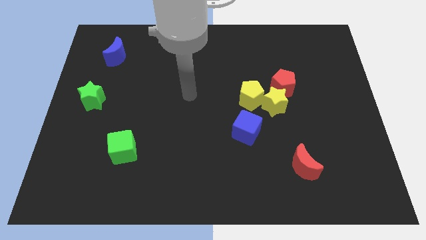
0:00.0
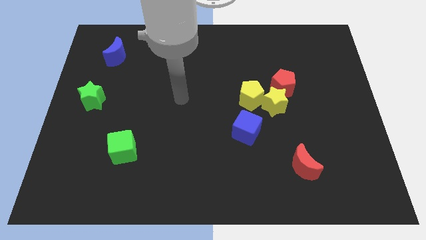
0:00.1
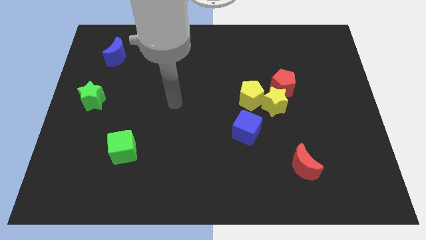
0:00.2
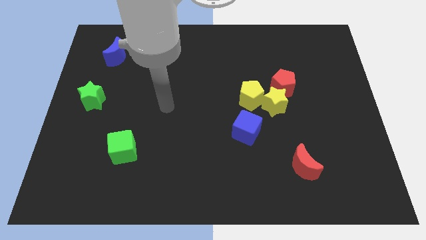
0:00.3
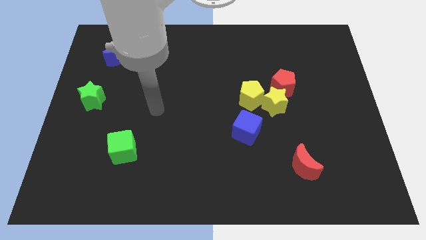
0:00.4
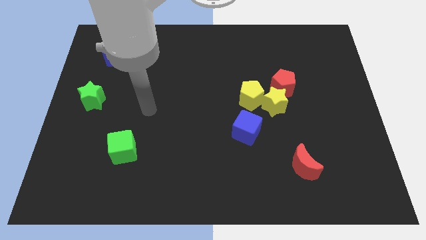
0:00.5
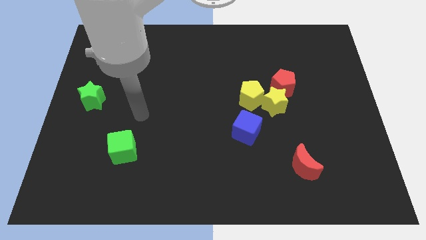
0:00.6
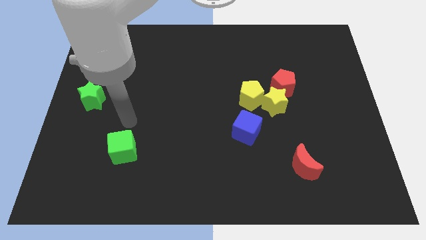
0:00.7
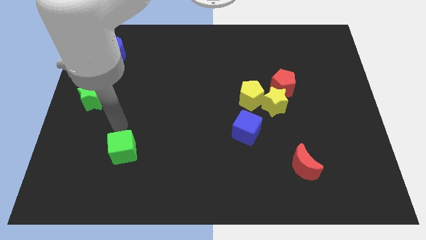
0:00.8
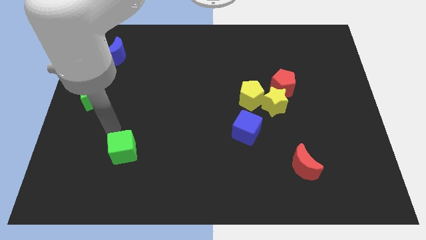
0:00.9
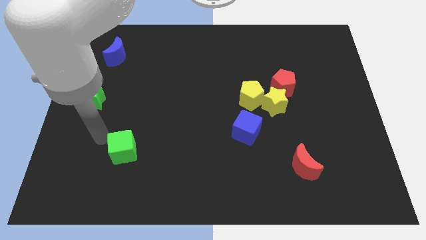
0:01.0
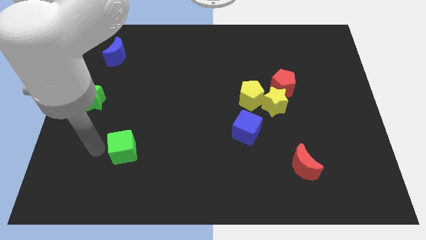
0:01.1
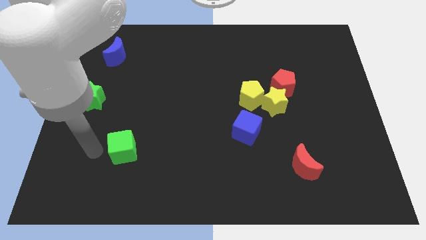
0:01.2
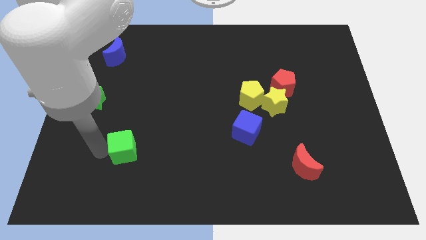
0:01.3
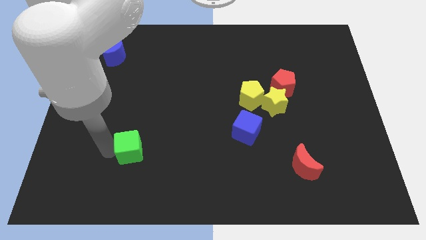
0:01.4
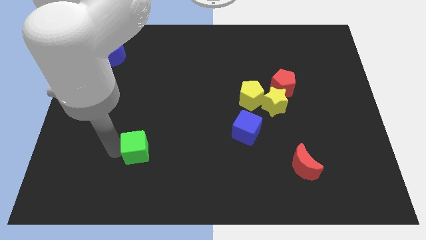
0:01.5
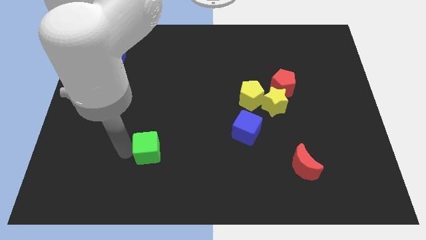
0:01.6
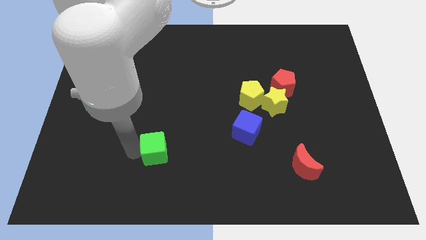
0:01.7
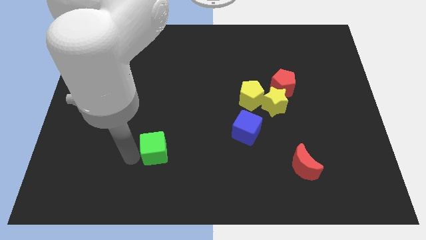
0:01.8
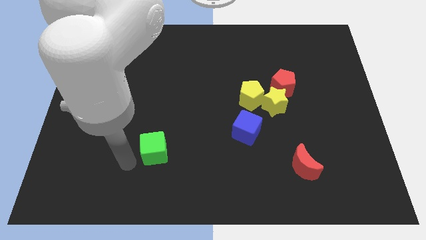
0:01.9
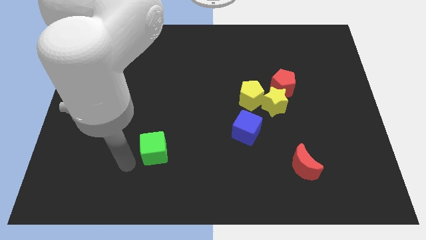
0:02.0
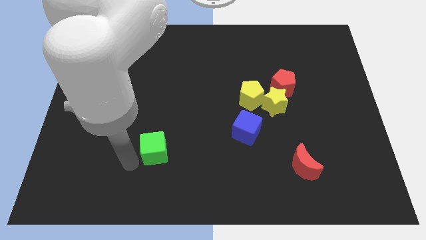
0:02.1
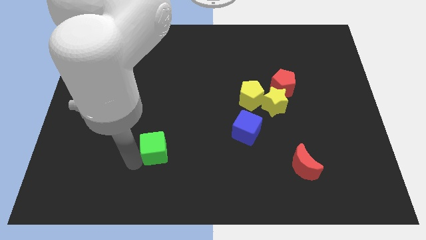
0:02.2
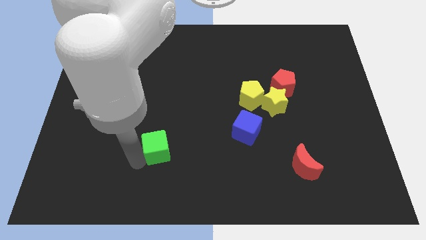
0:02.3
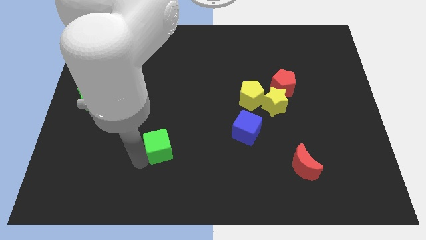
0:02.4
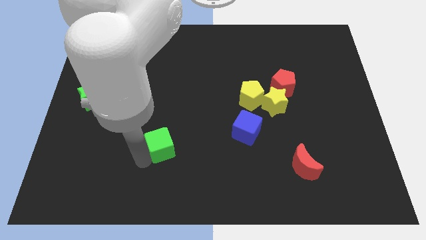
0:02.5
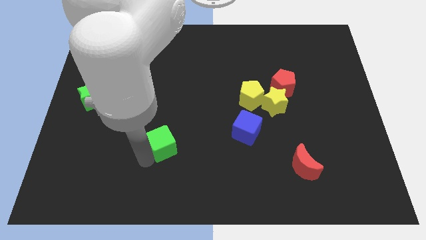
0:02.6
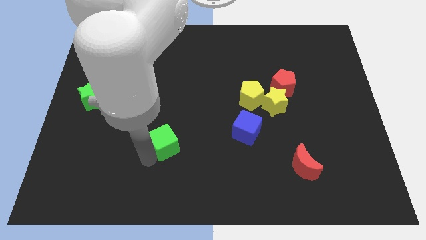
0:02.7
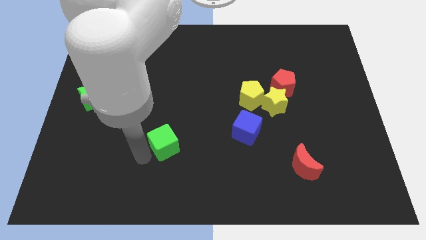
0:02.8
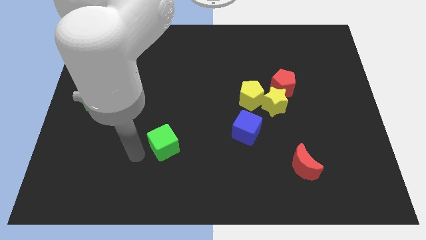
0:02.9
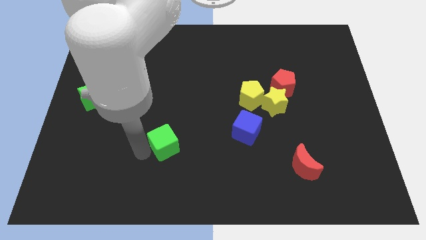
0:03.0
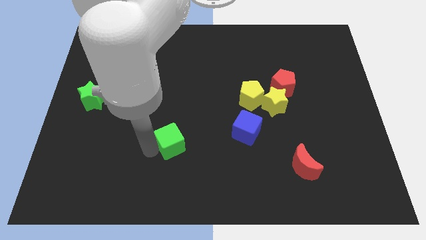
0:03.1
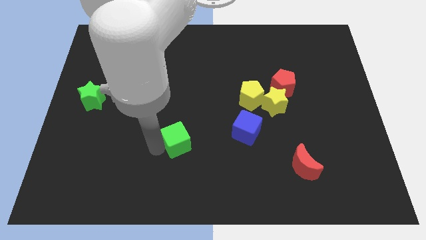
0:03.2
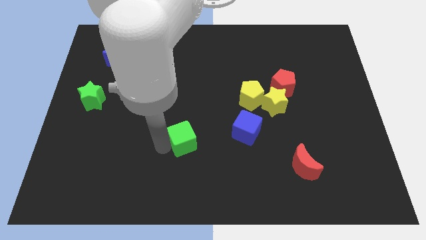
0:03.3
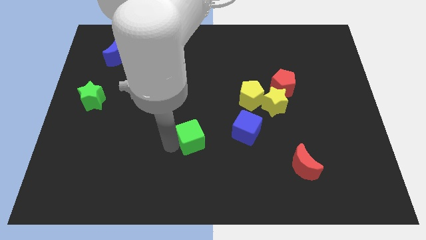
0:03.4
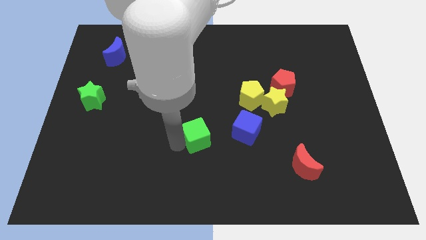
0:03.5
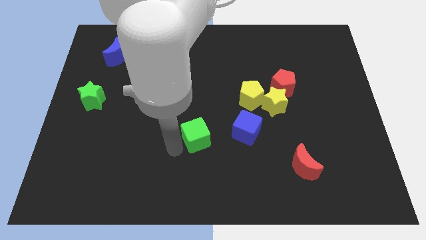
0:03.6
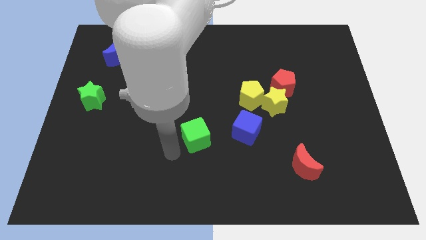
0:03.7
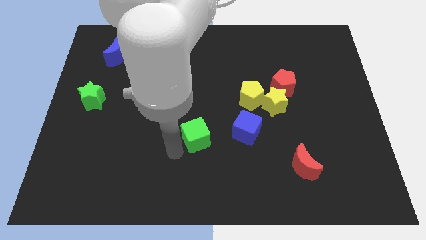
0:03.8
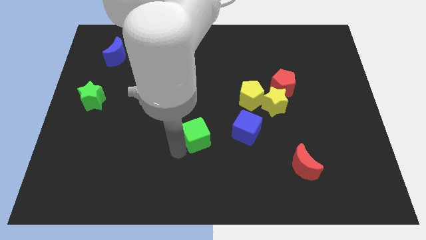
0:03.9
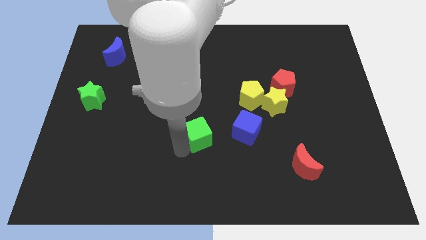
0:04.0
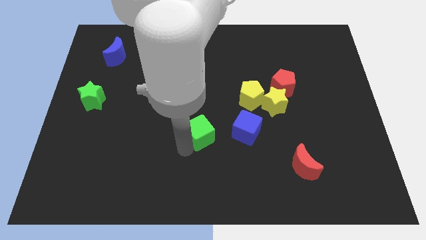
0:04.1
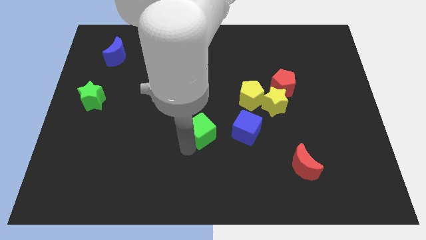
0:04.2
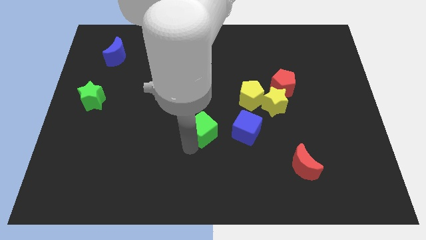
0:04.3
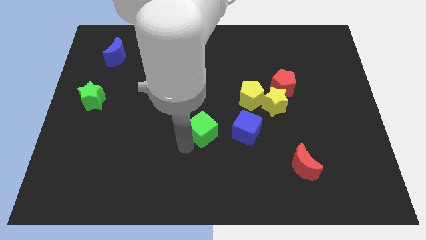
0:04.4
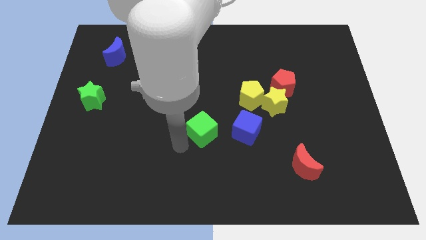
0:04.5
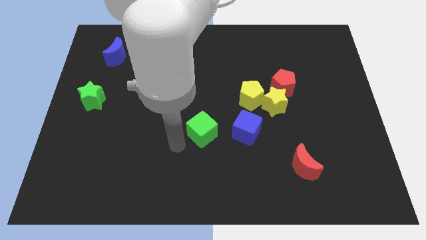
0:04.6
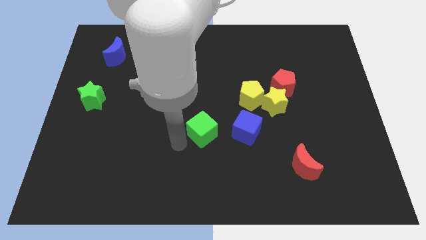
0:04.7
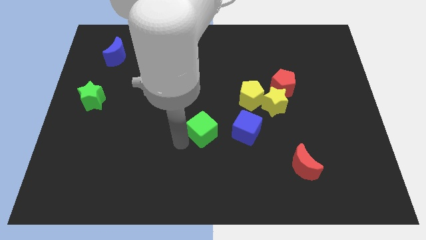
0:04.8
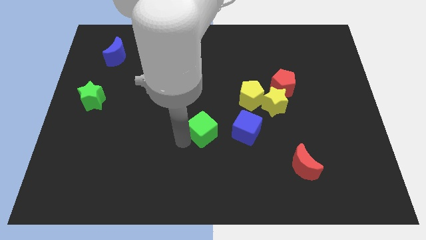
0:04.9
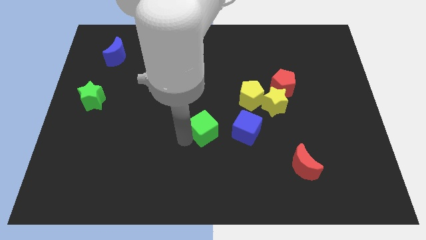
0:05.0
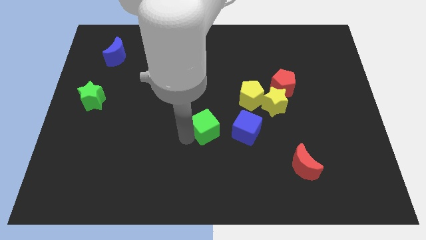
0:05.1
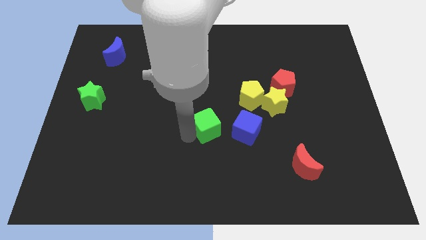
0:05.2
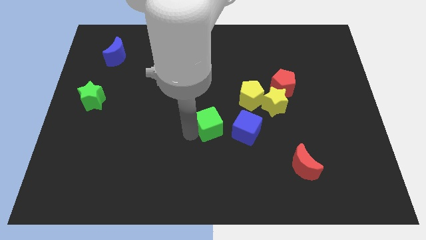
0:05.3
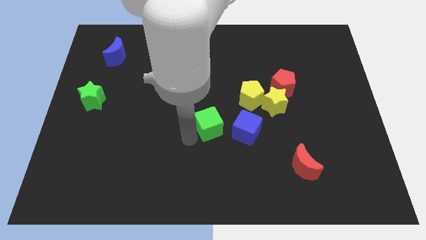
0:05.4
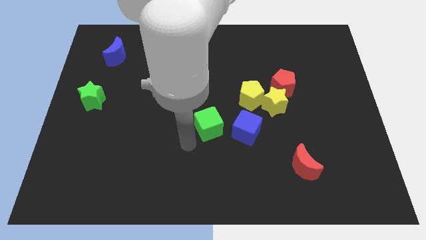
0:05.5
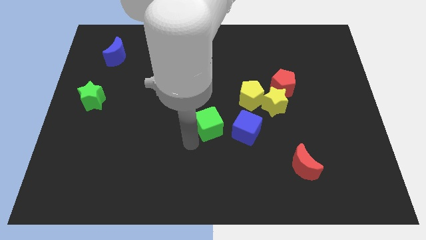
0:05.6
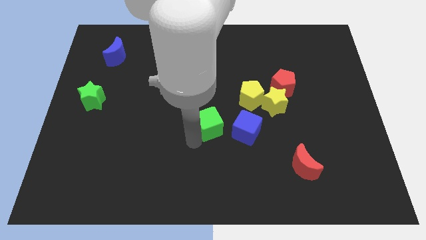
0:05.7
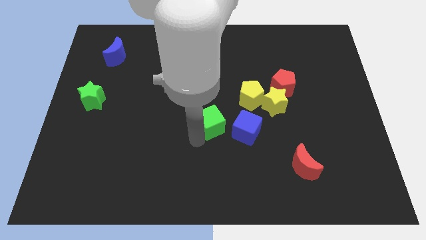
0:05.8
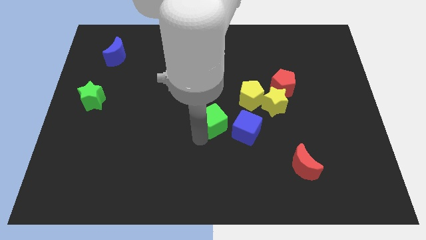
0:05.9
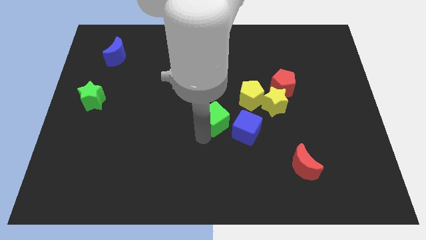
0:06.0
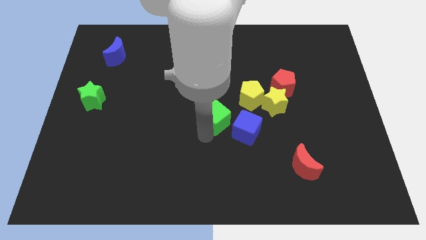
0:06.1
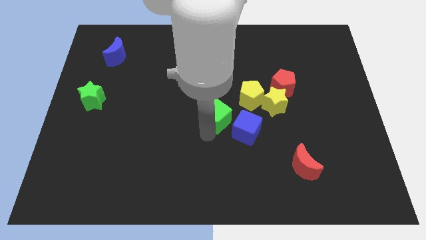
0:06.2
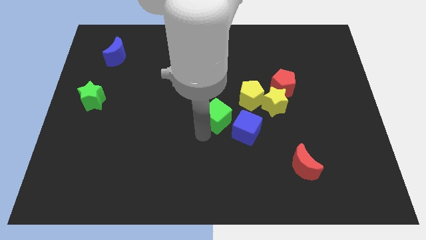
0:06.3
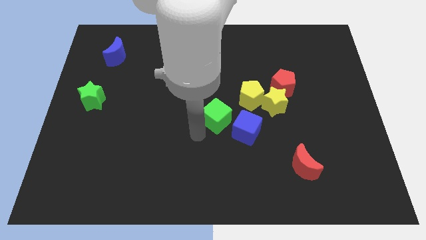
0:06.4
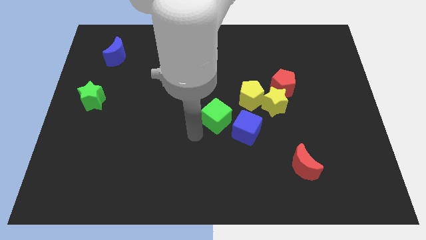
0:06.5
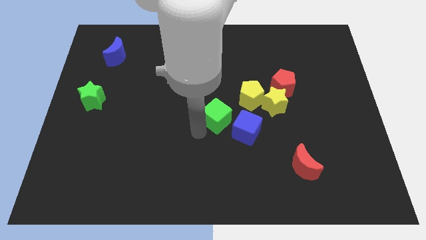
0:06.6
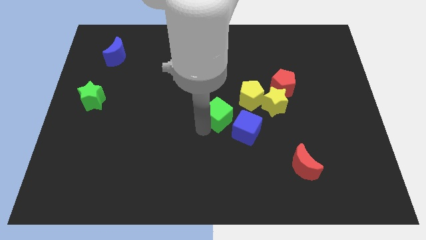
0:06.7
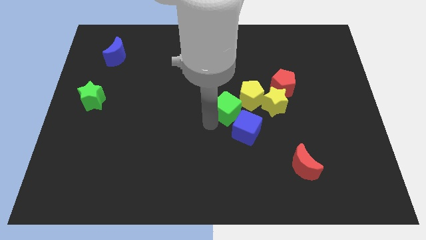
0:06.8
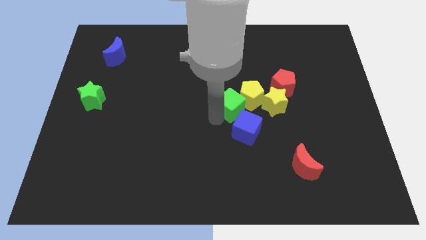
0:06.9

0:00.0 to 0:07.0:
push the green cube towards the yellow pentagon

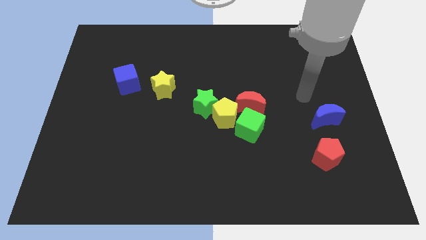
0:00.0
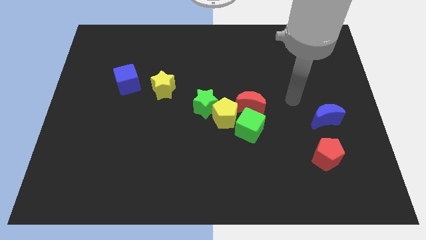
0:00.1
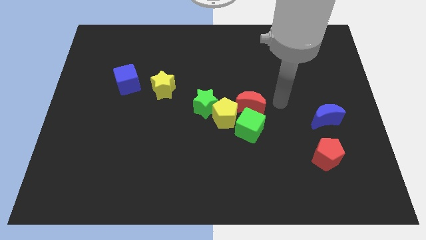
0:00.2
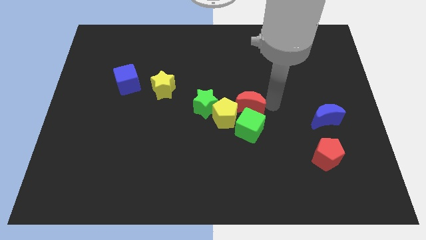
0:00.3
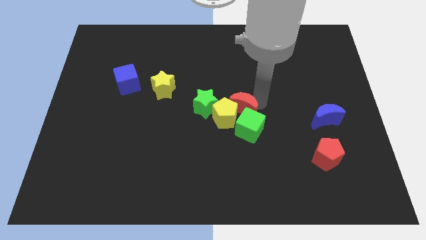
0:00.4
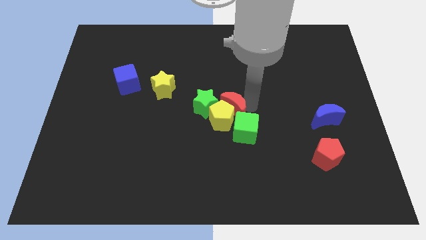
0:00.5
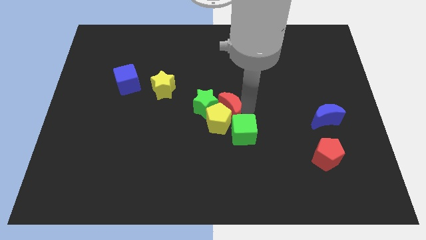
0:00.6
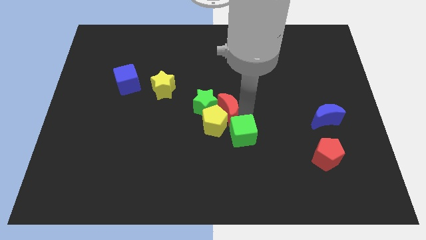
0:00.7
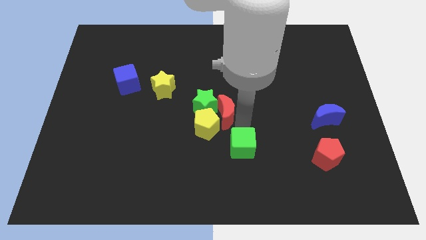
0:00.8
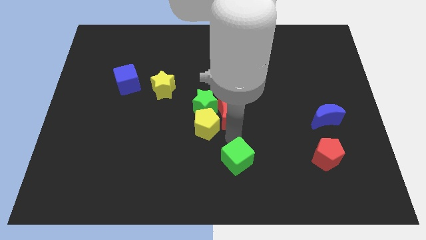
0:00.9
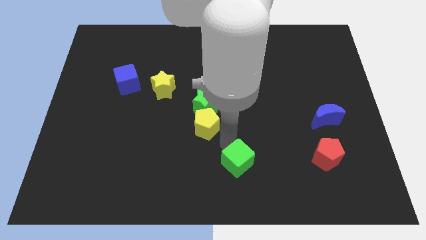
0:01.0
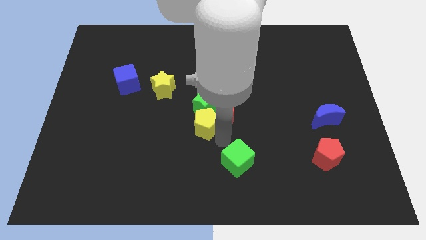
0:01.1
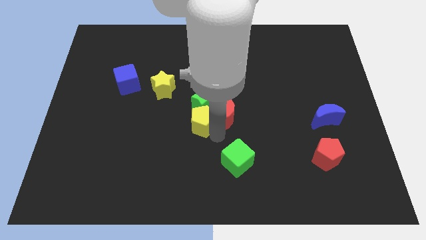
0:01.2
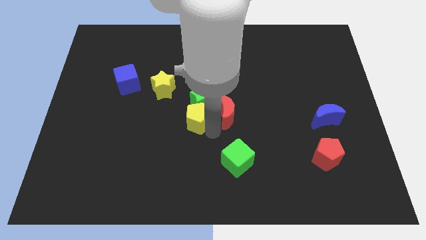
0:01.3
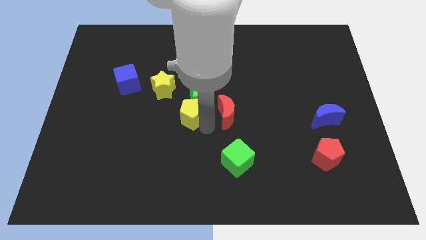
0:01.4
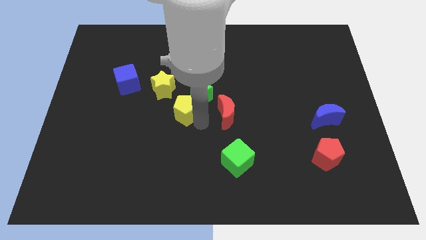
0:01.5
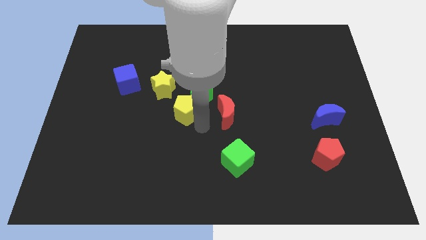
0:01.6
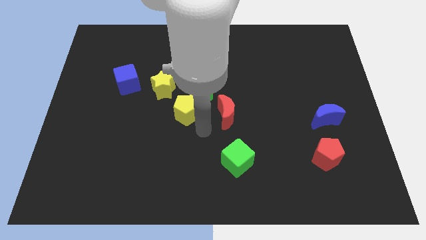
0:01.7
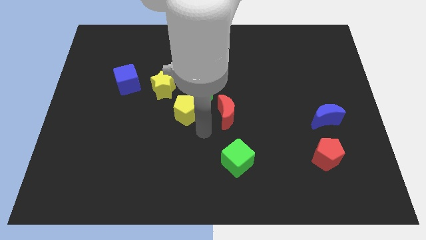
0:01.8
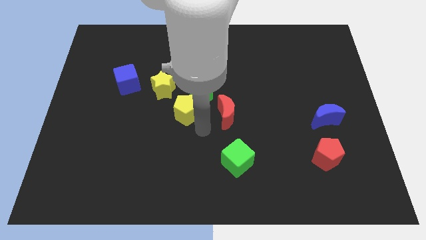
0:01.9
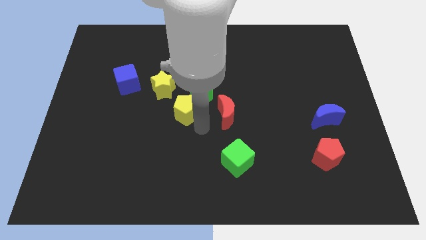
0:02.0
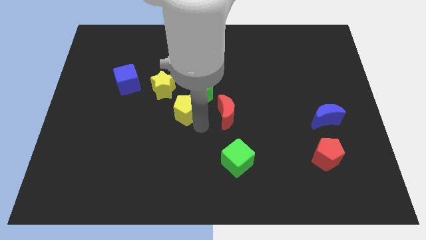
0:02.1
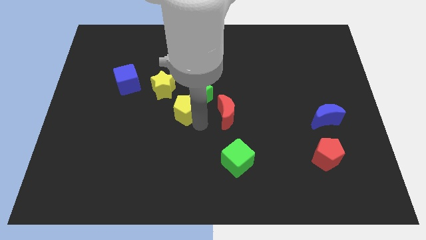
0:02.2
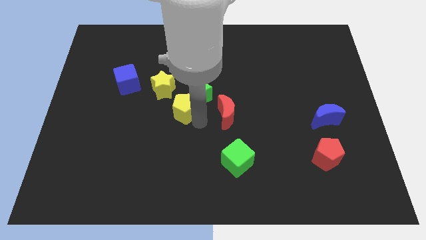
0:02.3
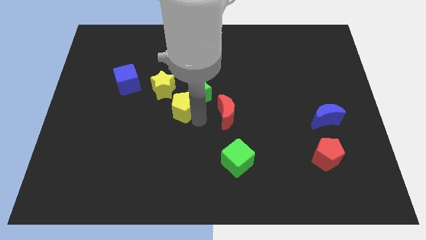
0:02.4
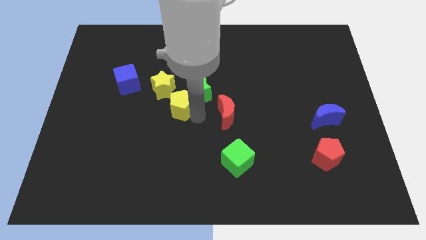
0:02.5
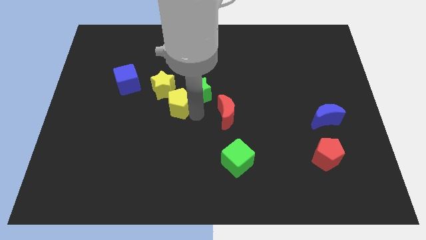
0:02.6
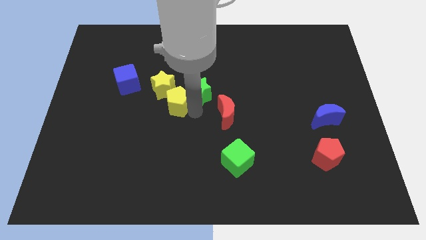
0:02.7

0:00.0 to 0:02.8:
move the yellow pentagon next to the yellow star
